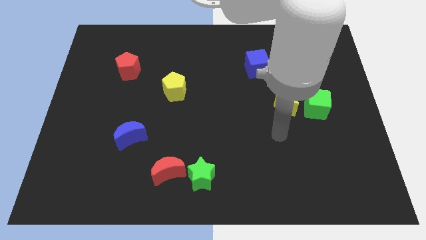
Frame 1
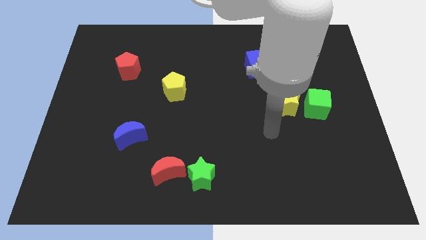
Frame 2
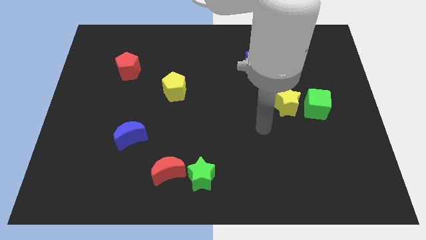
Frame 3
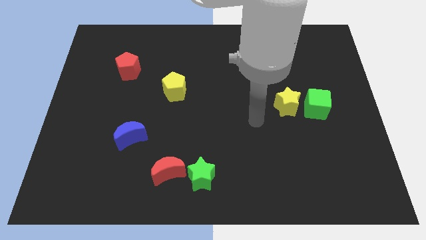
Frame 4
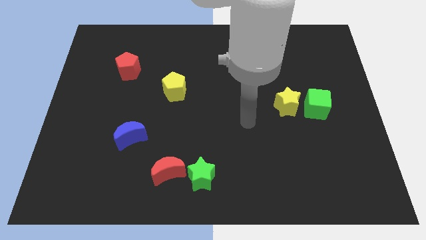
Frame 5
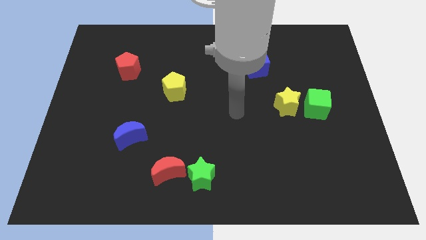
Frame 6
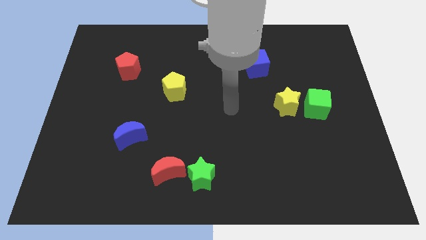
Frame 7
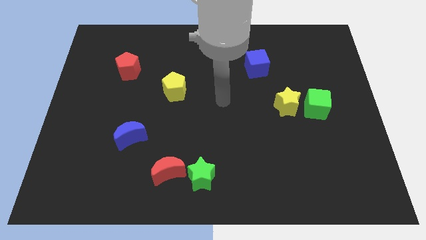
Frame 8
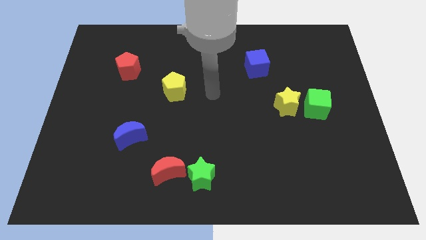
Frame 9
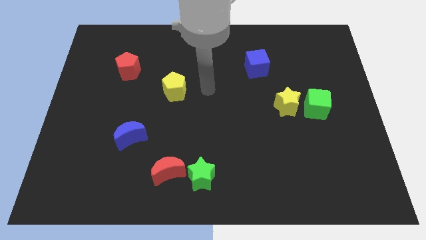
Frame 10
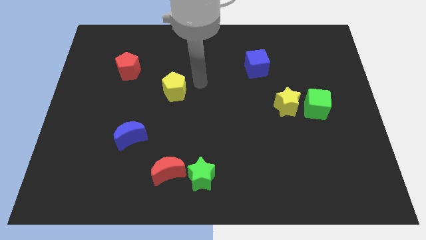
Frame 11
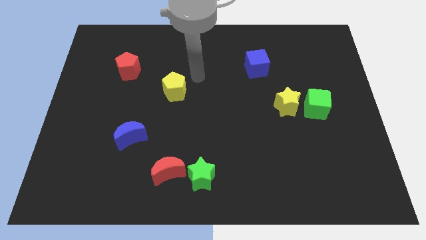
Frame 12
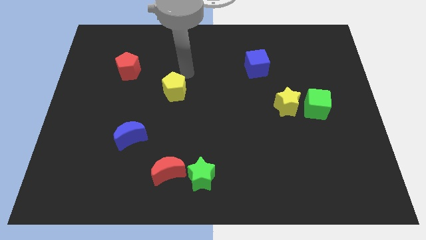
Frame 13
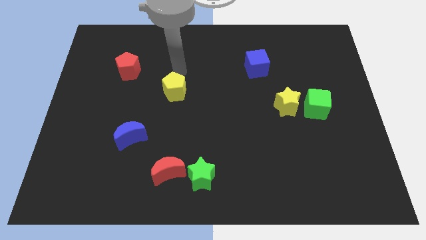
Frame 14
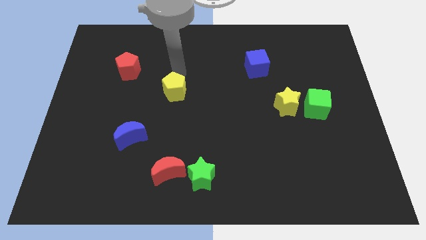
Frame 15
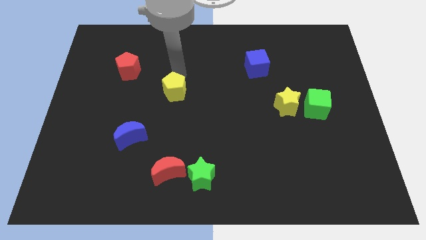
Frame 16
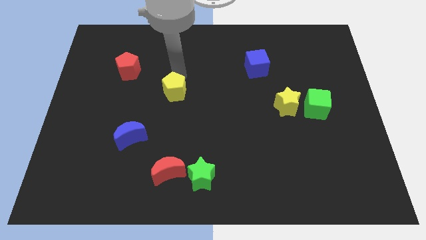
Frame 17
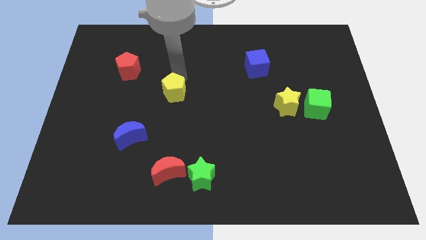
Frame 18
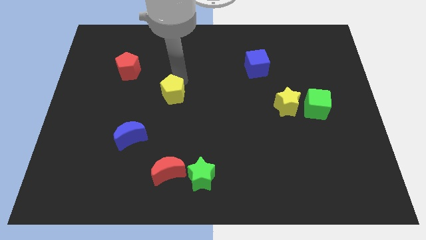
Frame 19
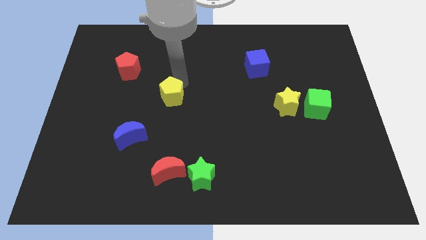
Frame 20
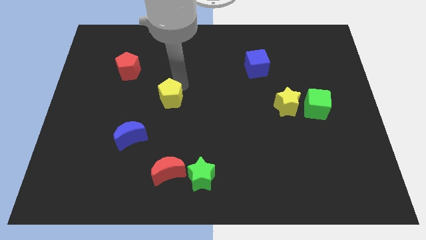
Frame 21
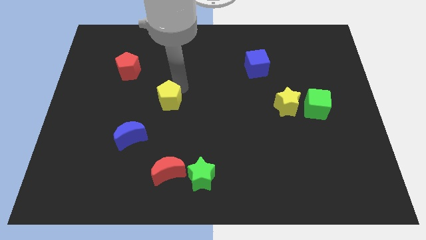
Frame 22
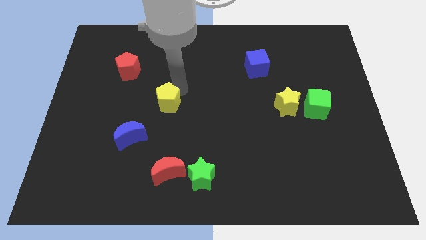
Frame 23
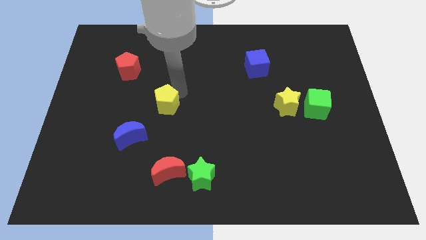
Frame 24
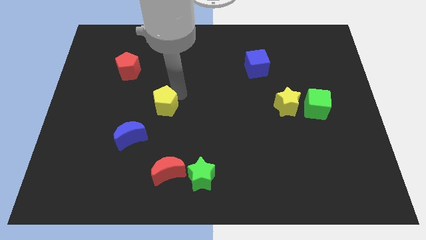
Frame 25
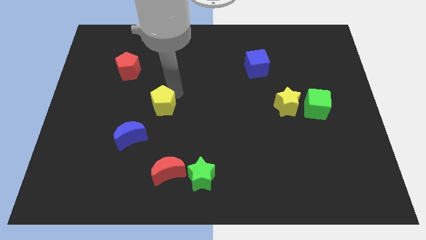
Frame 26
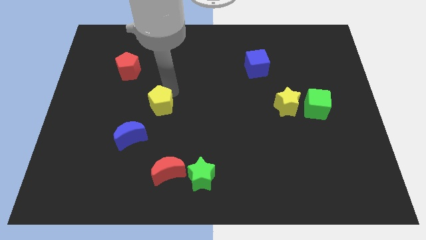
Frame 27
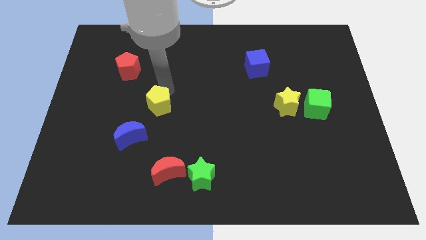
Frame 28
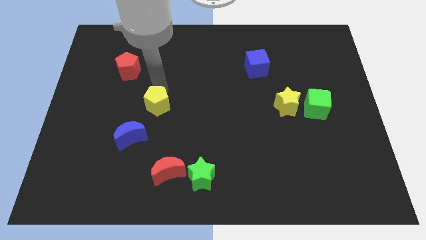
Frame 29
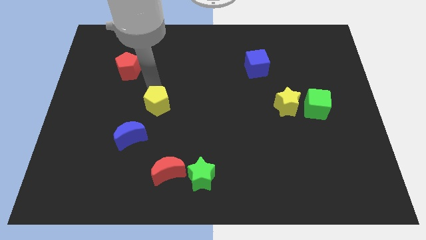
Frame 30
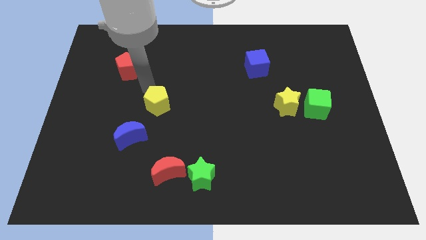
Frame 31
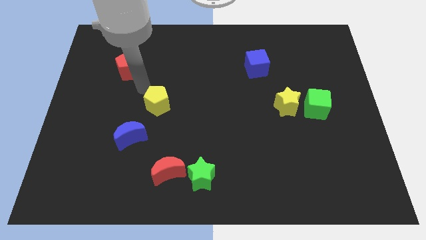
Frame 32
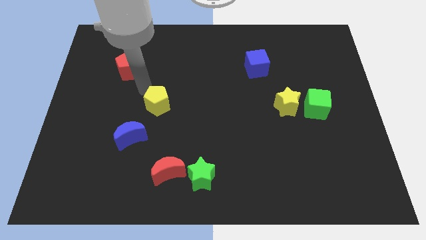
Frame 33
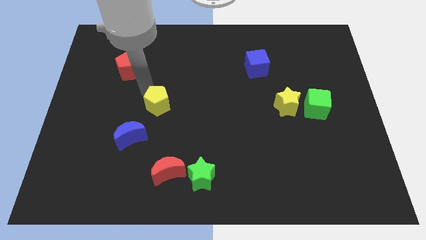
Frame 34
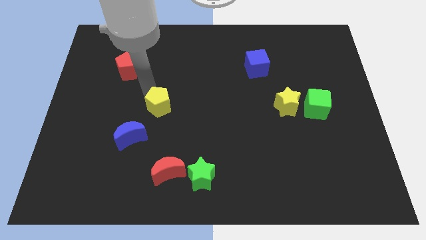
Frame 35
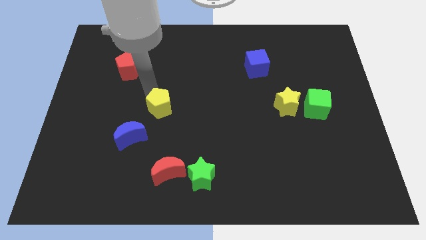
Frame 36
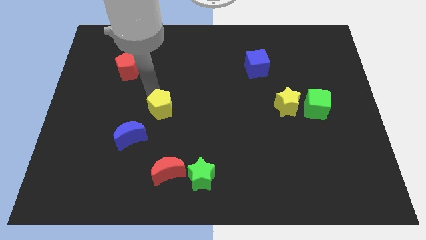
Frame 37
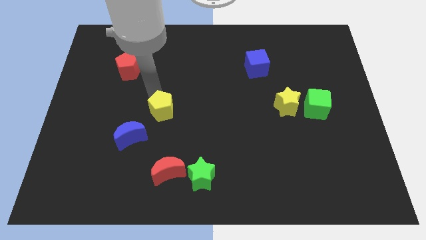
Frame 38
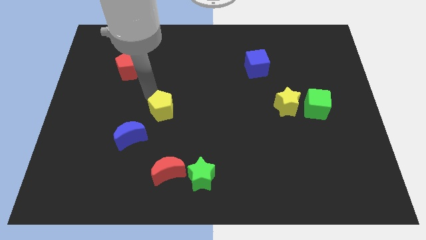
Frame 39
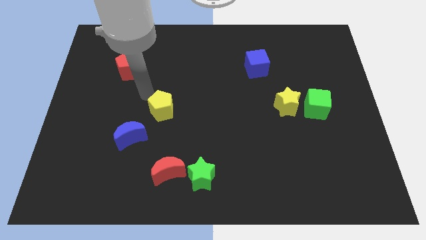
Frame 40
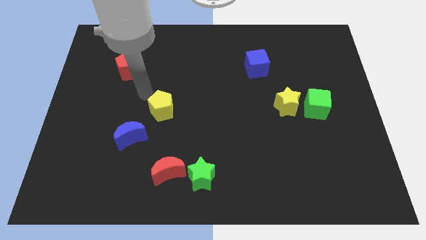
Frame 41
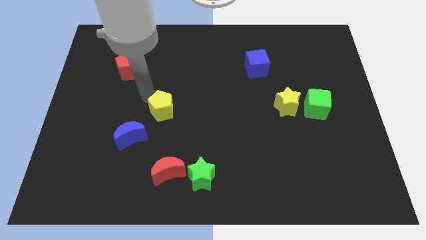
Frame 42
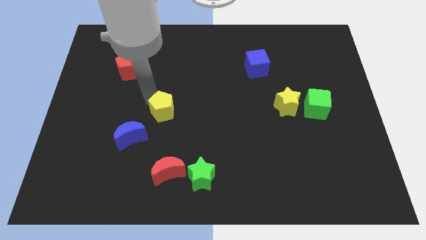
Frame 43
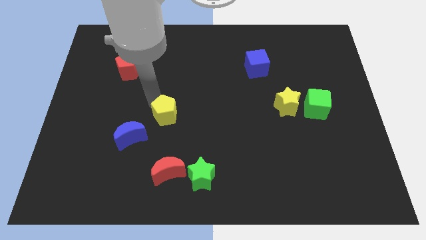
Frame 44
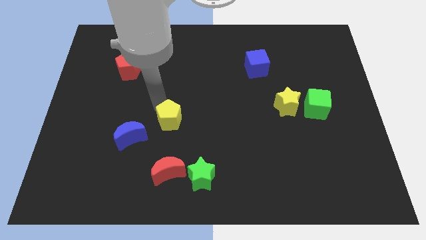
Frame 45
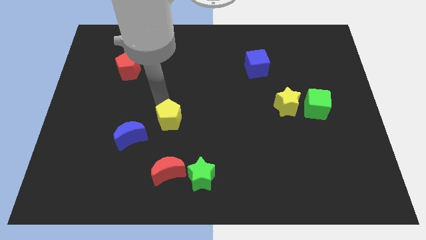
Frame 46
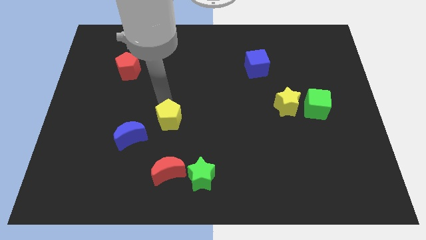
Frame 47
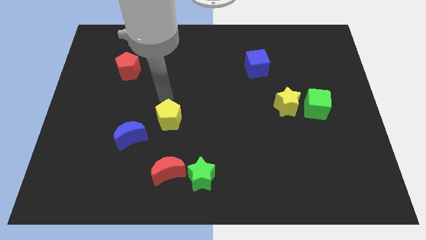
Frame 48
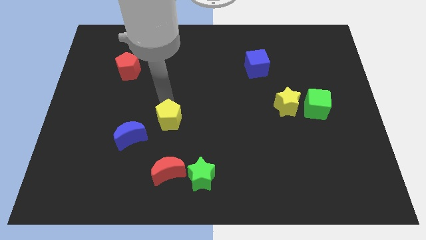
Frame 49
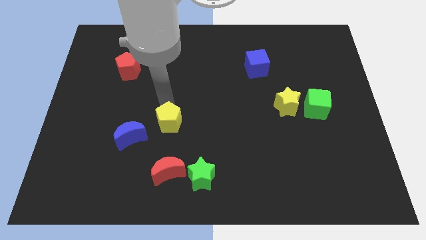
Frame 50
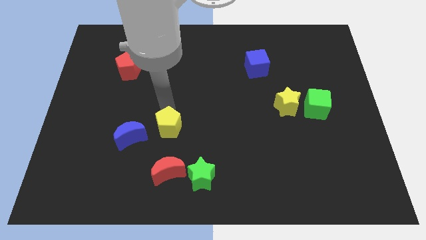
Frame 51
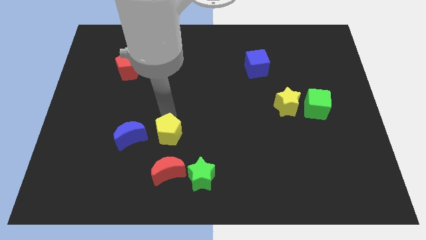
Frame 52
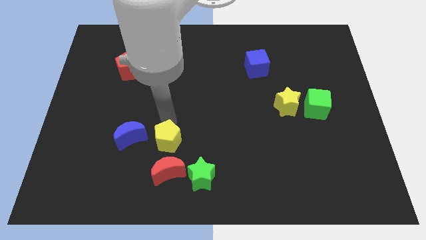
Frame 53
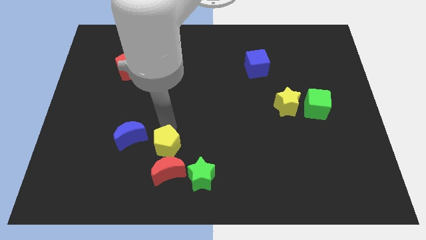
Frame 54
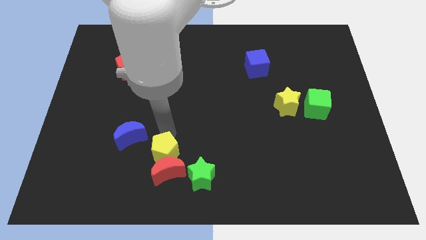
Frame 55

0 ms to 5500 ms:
put the yellow pentagon towards the red moon

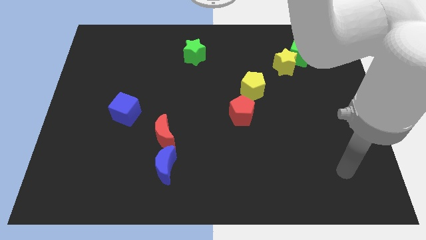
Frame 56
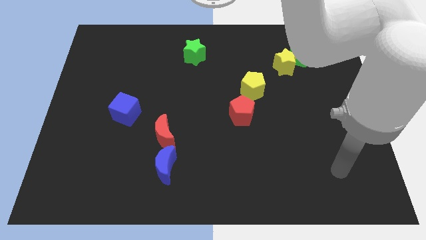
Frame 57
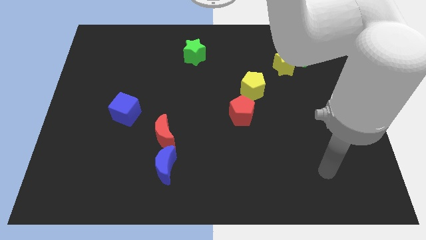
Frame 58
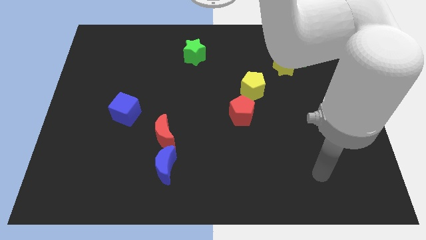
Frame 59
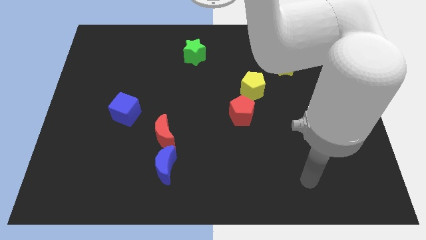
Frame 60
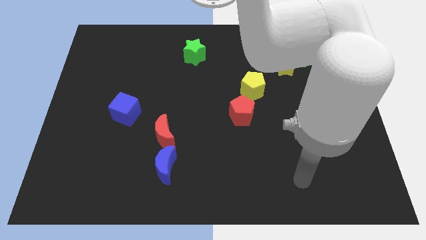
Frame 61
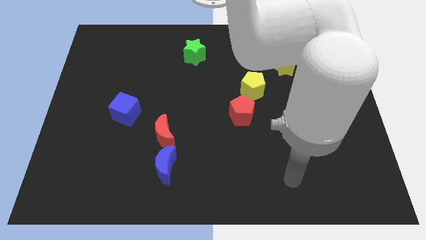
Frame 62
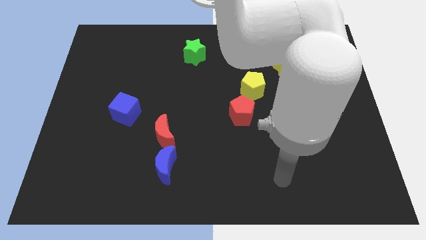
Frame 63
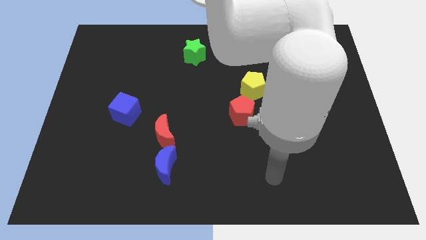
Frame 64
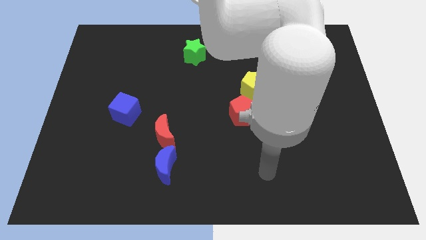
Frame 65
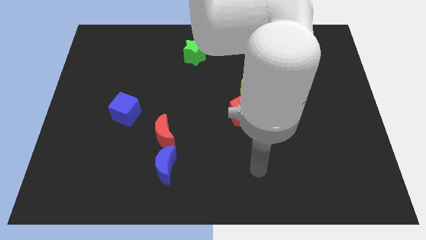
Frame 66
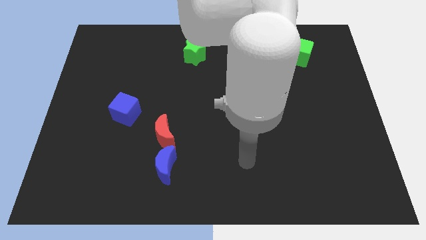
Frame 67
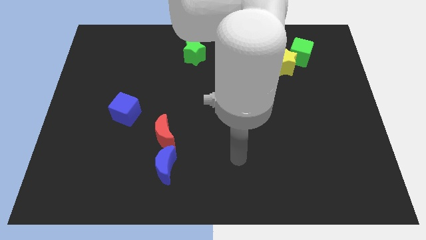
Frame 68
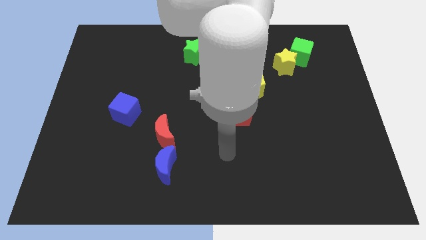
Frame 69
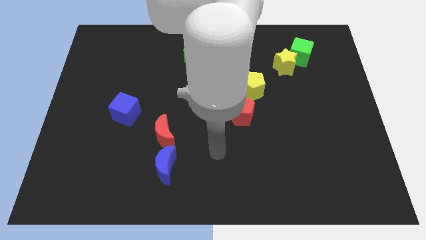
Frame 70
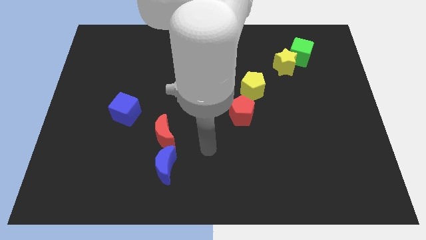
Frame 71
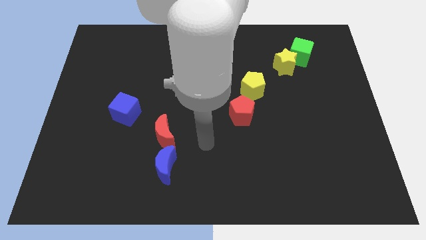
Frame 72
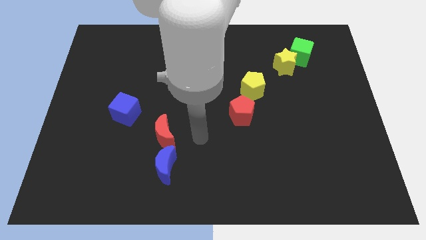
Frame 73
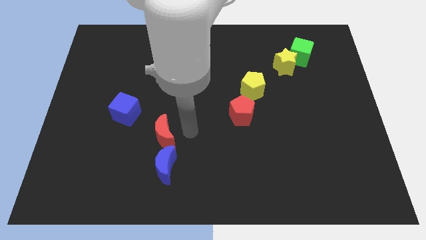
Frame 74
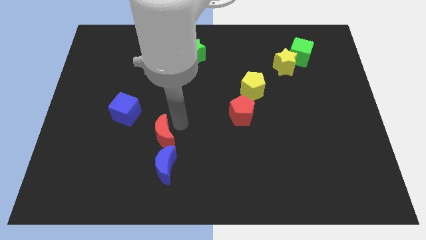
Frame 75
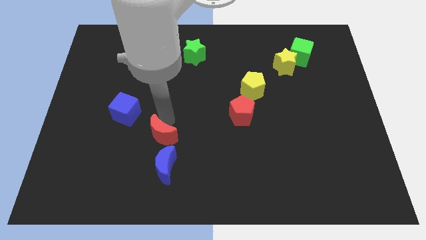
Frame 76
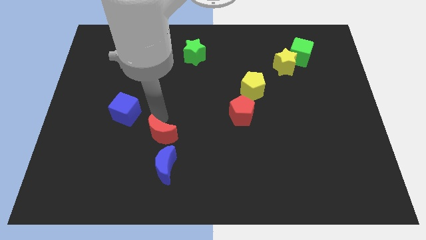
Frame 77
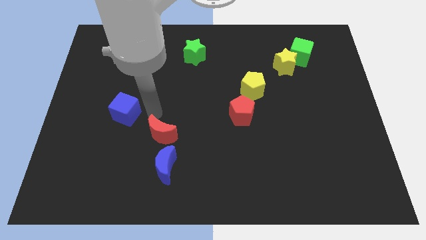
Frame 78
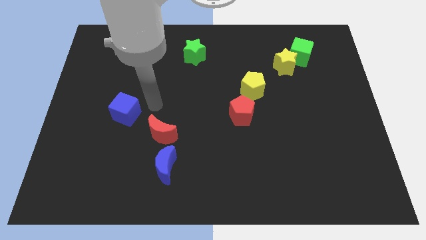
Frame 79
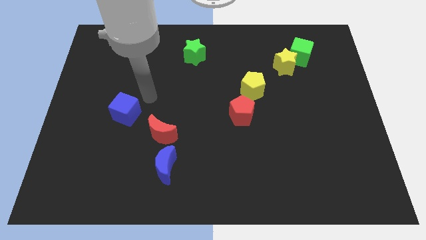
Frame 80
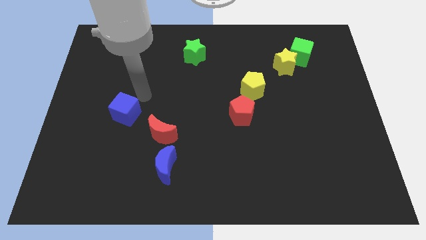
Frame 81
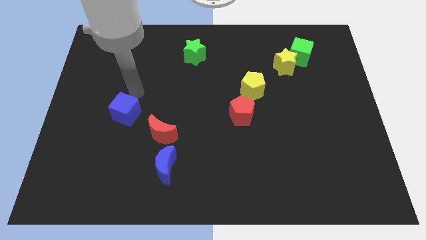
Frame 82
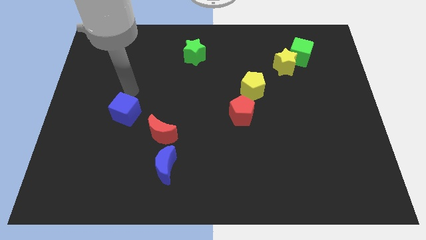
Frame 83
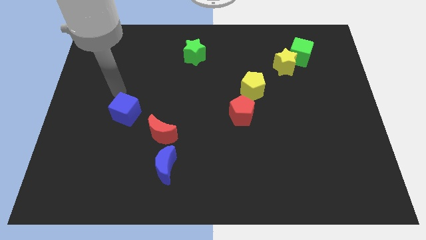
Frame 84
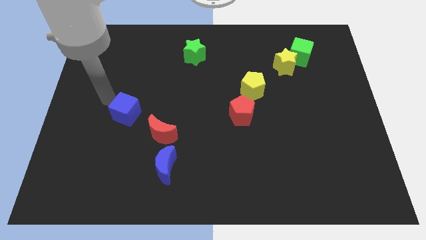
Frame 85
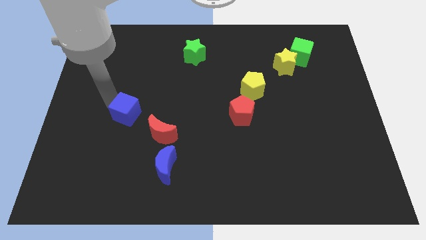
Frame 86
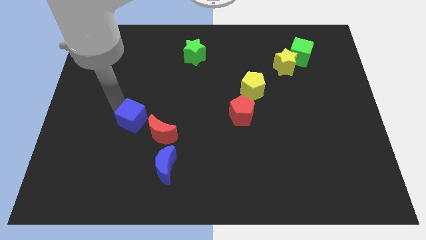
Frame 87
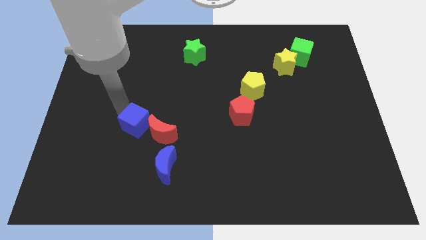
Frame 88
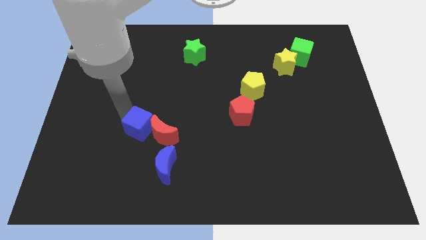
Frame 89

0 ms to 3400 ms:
slide the blue cube next to the red moon
